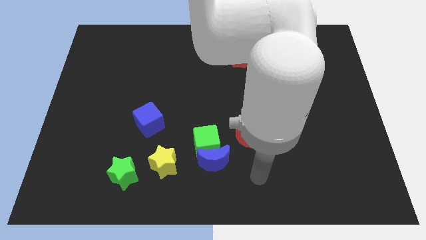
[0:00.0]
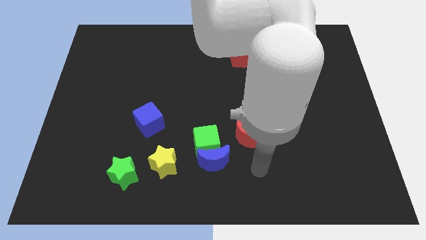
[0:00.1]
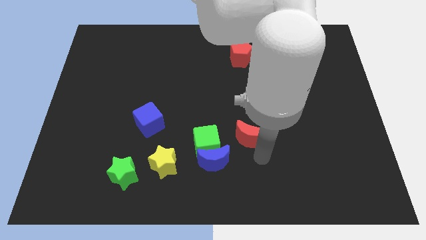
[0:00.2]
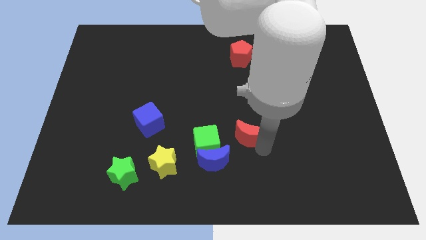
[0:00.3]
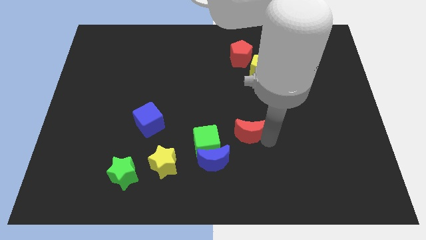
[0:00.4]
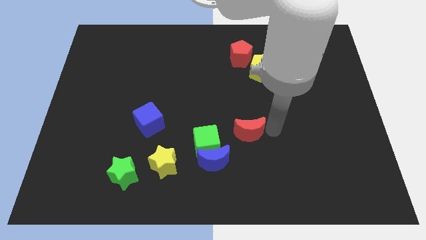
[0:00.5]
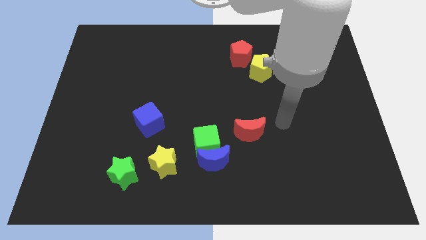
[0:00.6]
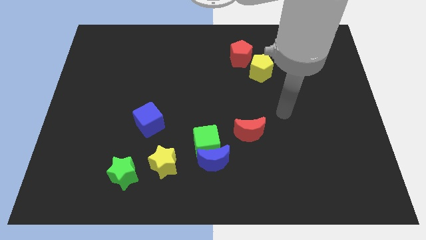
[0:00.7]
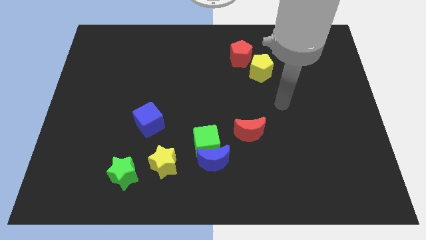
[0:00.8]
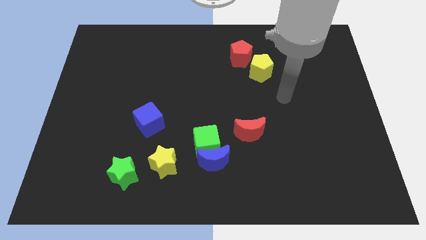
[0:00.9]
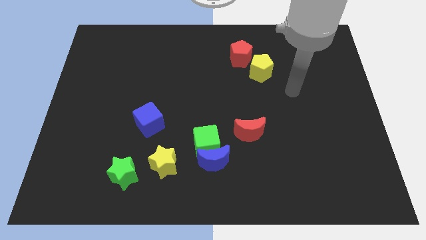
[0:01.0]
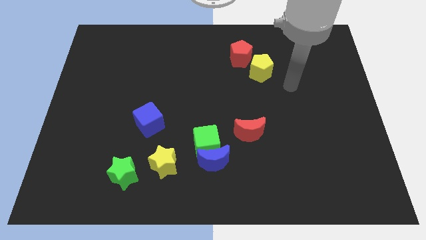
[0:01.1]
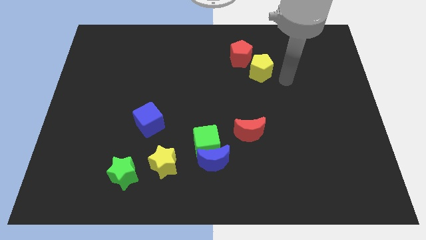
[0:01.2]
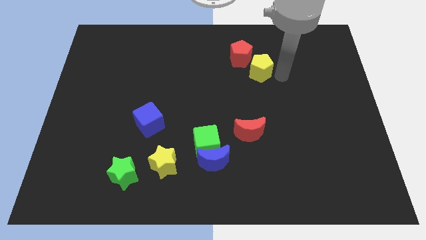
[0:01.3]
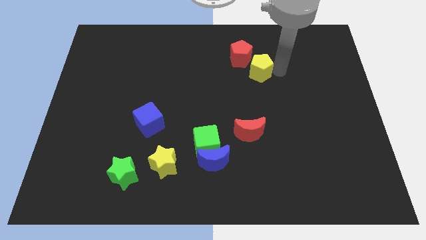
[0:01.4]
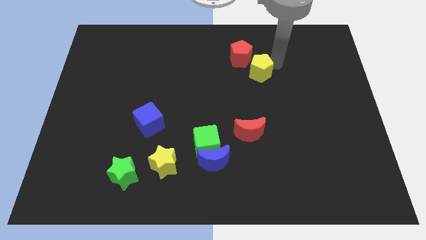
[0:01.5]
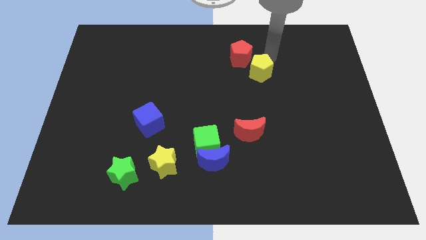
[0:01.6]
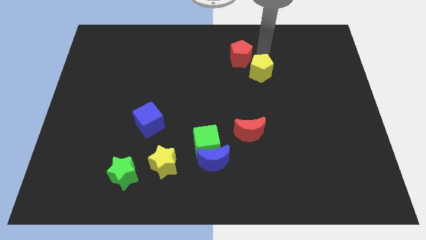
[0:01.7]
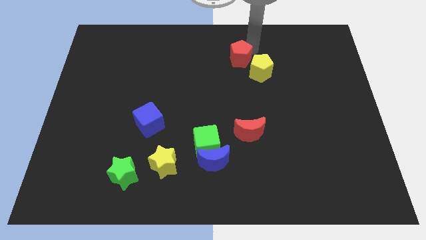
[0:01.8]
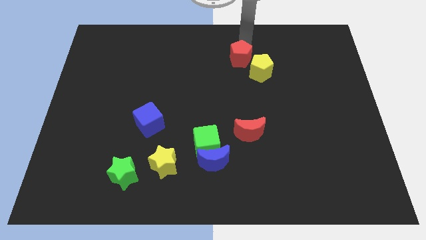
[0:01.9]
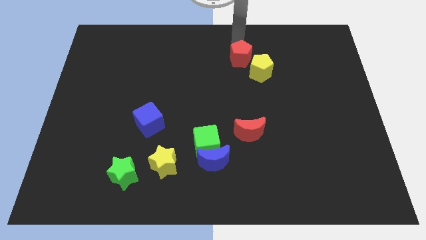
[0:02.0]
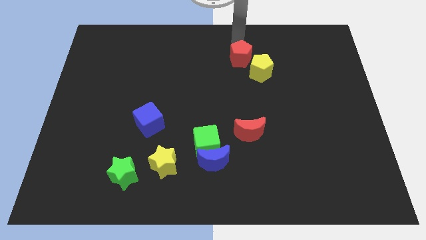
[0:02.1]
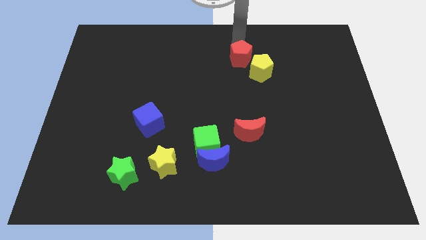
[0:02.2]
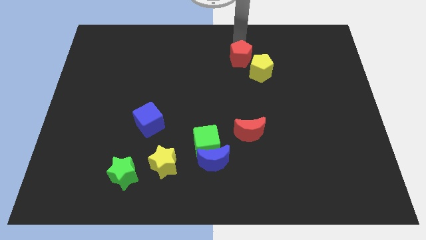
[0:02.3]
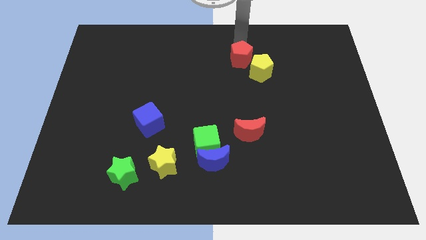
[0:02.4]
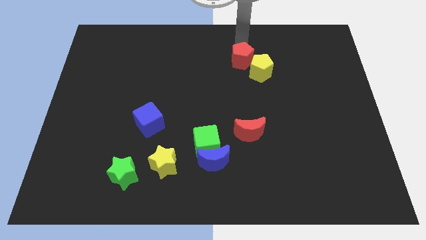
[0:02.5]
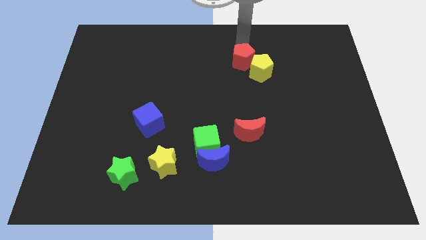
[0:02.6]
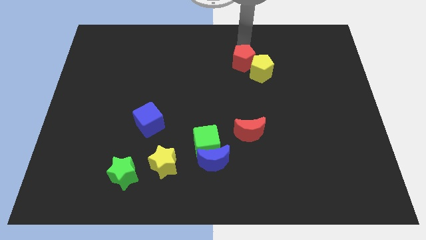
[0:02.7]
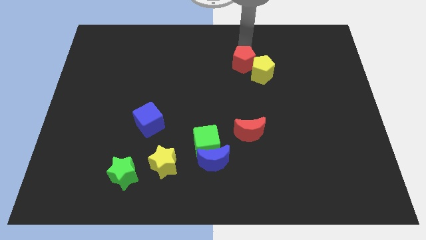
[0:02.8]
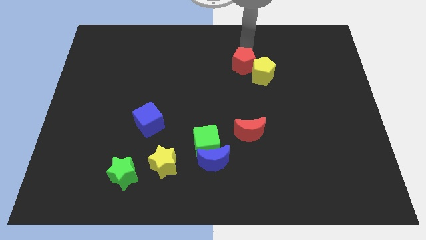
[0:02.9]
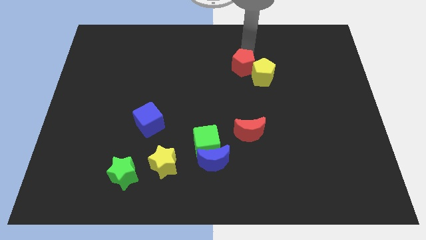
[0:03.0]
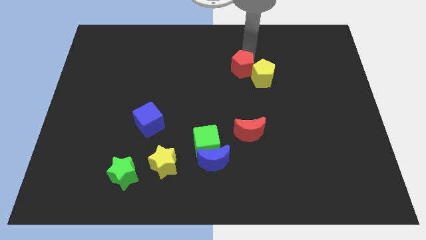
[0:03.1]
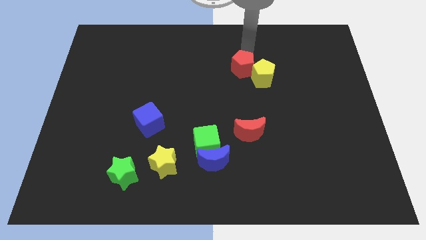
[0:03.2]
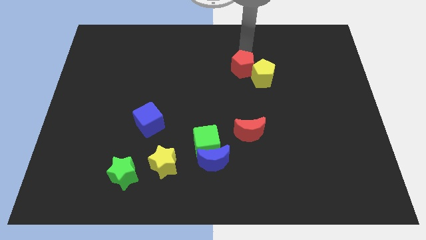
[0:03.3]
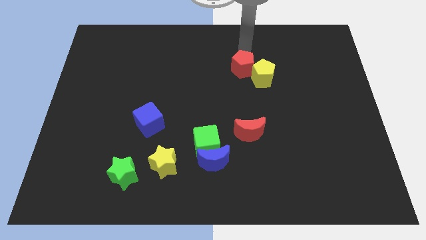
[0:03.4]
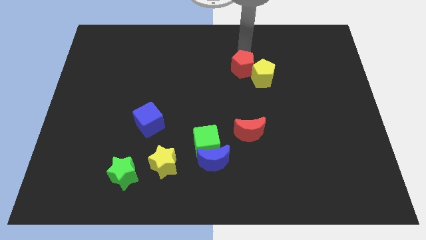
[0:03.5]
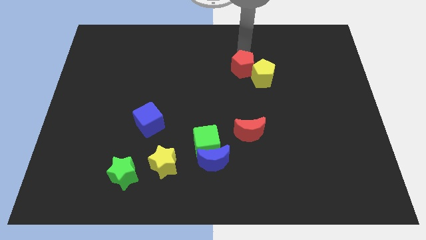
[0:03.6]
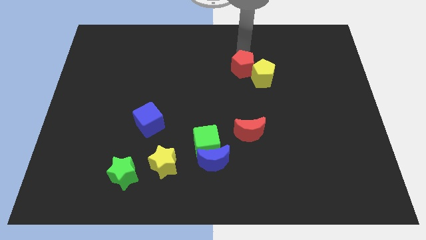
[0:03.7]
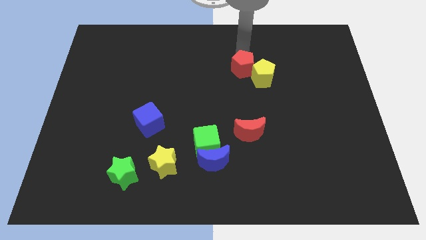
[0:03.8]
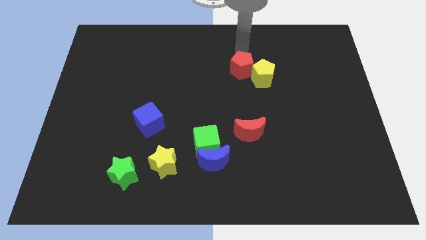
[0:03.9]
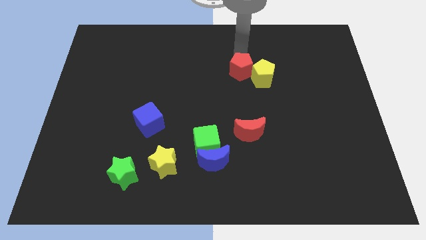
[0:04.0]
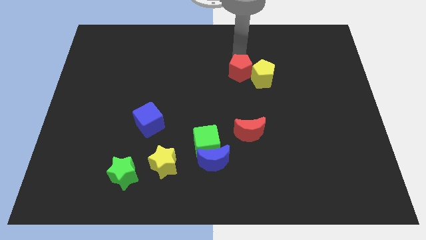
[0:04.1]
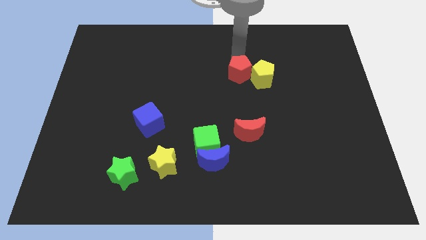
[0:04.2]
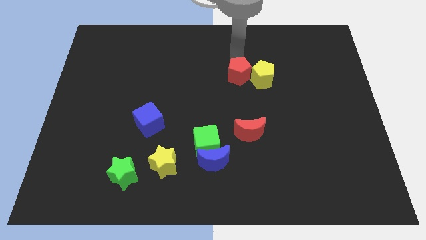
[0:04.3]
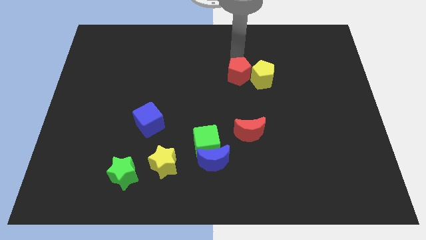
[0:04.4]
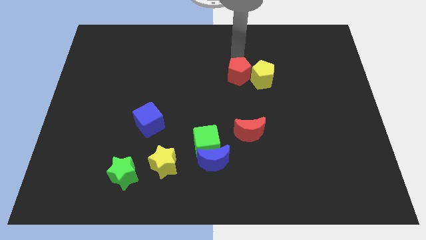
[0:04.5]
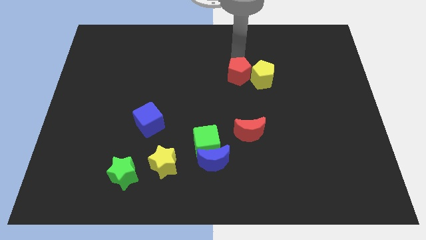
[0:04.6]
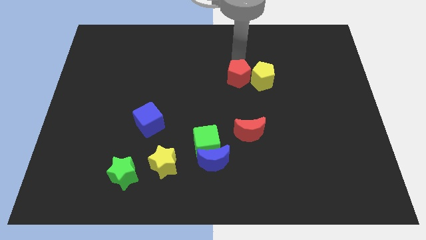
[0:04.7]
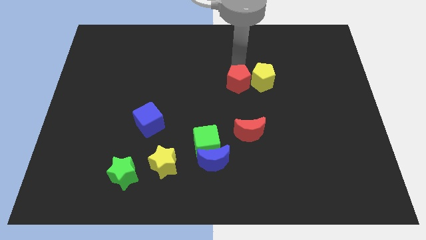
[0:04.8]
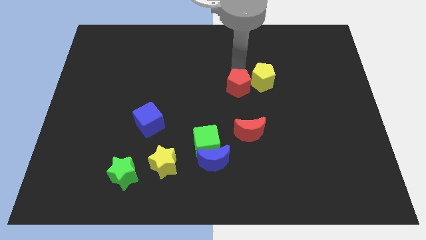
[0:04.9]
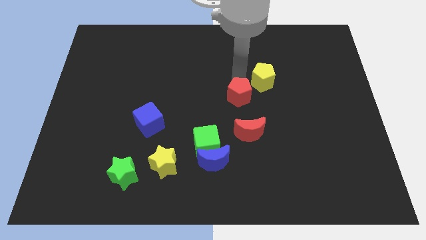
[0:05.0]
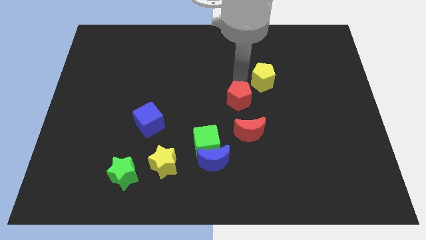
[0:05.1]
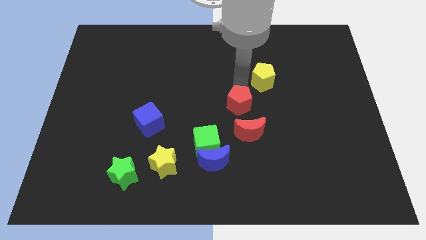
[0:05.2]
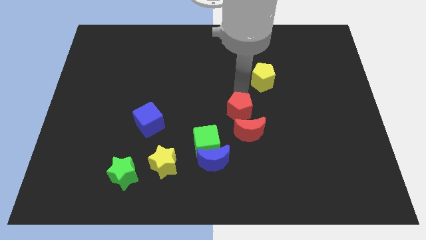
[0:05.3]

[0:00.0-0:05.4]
put the red pentagon diagonally up and to the right of the green cube

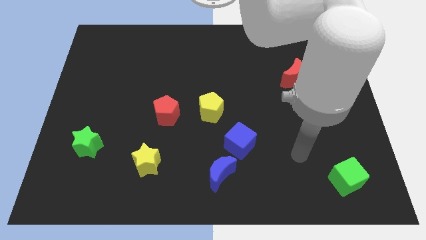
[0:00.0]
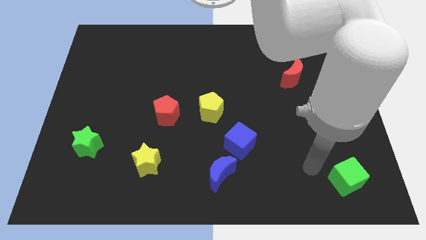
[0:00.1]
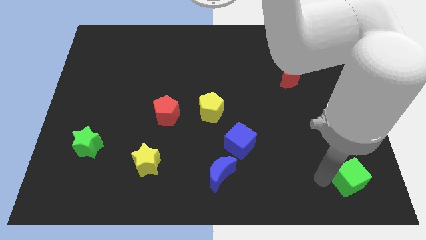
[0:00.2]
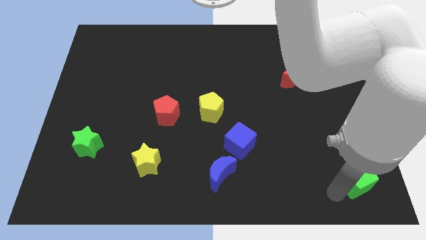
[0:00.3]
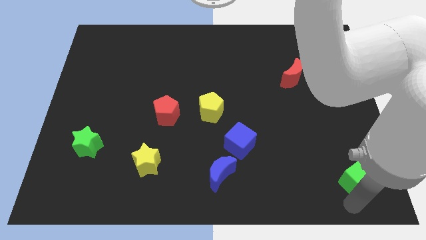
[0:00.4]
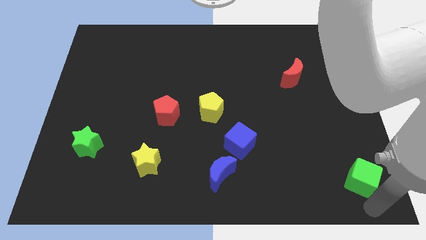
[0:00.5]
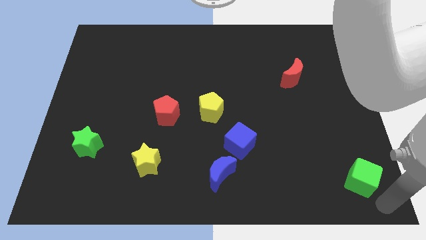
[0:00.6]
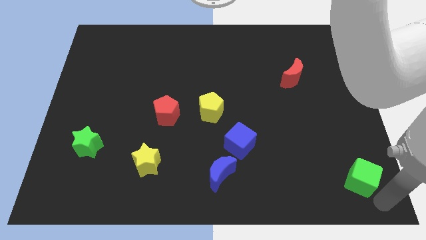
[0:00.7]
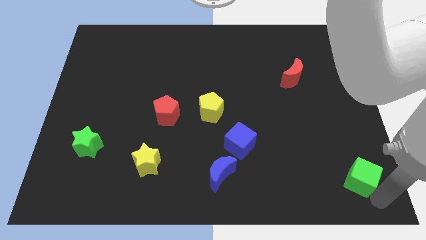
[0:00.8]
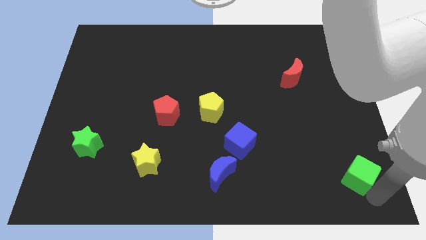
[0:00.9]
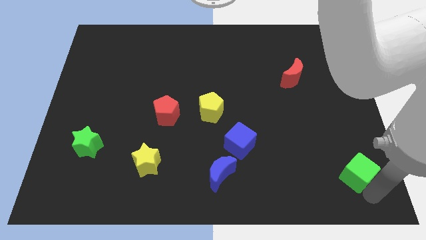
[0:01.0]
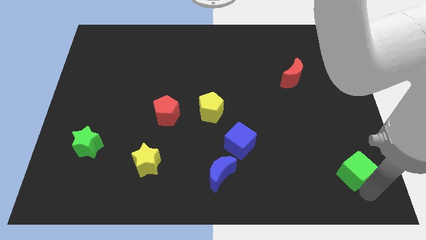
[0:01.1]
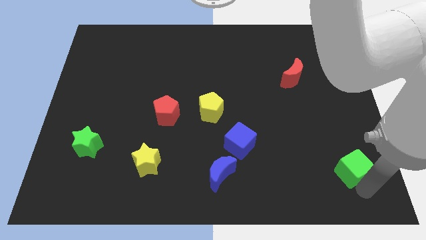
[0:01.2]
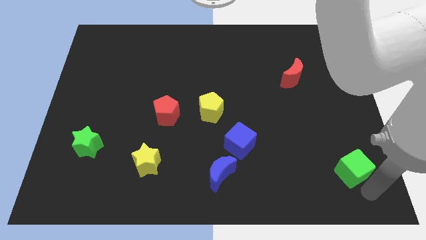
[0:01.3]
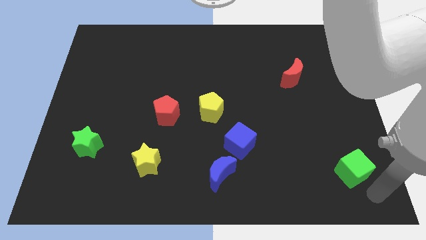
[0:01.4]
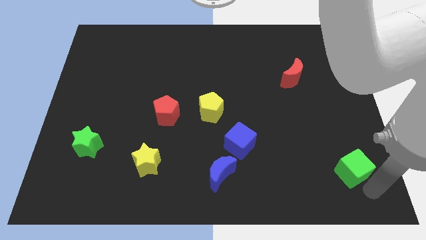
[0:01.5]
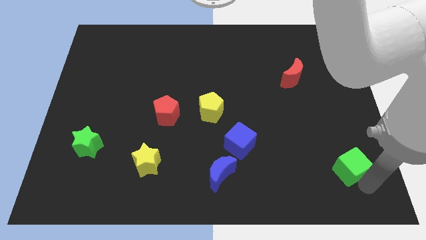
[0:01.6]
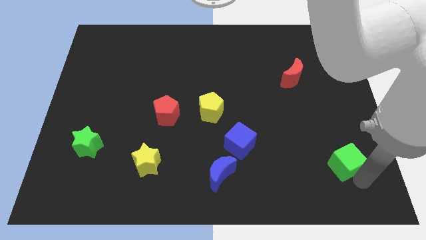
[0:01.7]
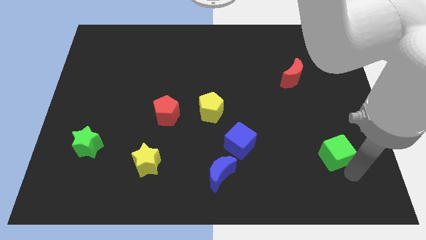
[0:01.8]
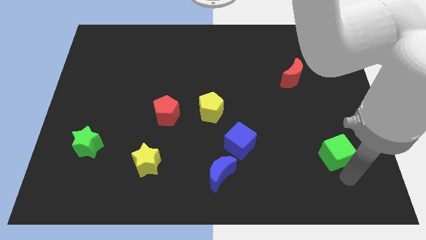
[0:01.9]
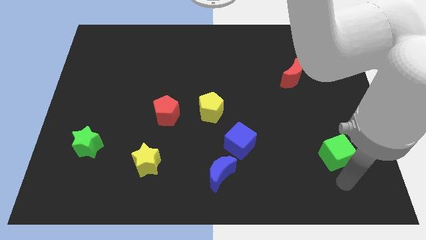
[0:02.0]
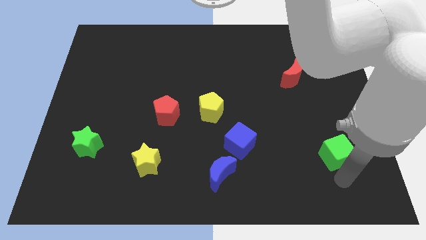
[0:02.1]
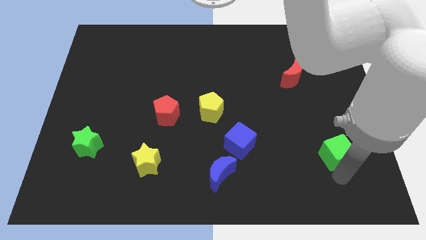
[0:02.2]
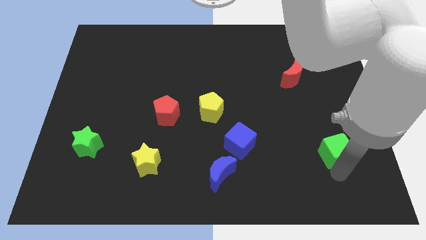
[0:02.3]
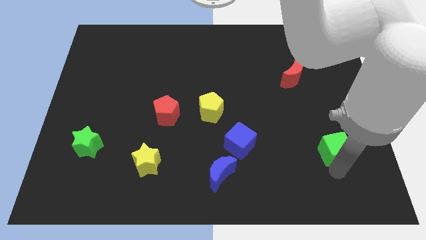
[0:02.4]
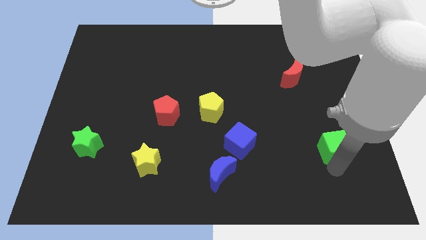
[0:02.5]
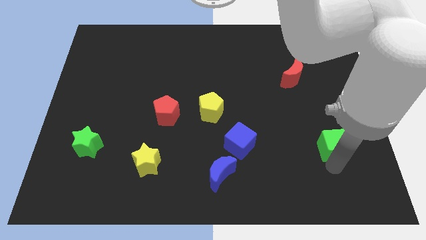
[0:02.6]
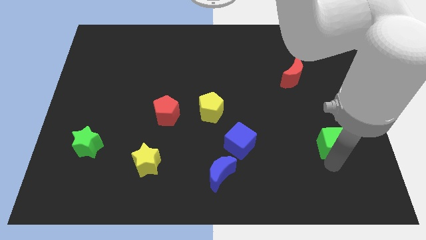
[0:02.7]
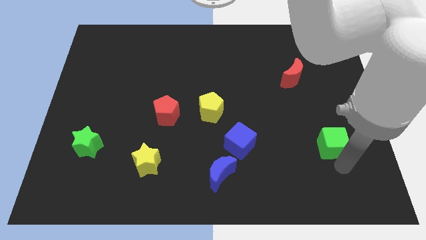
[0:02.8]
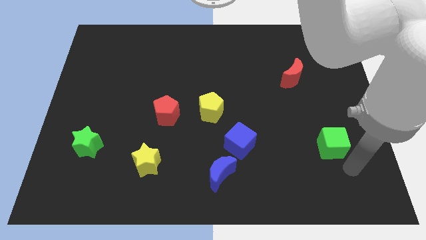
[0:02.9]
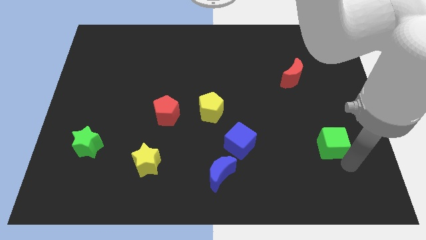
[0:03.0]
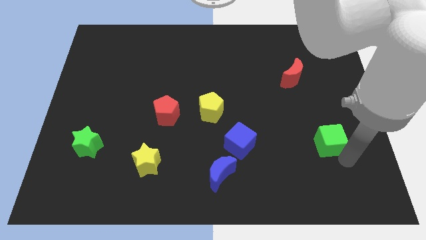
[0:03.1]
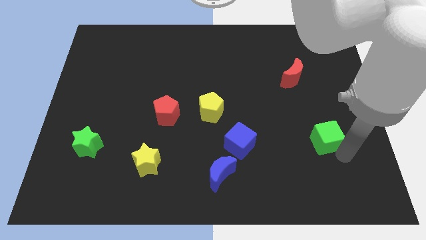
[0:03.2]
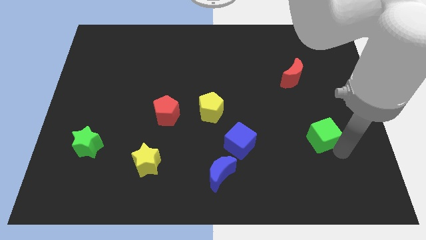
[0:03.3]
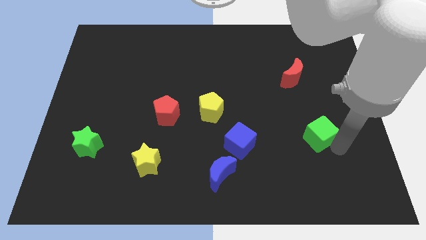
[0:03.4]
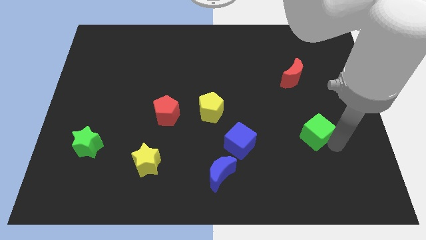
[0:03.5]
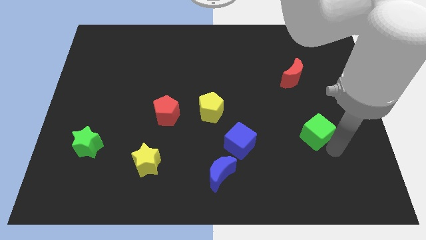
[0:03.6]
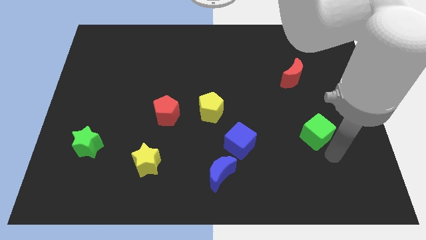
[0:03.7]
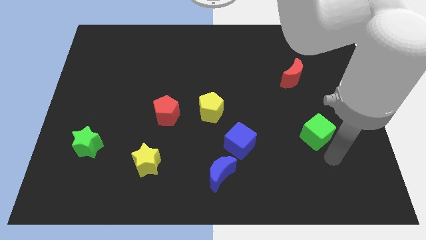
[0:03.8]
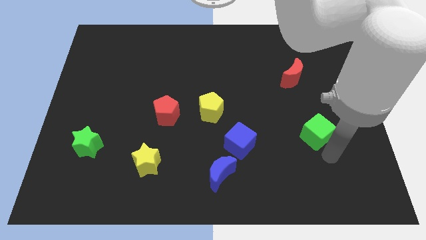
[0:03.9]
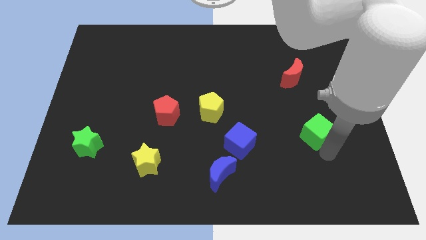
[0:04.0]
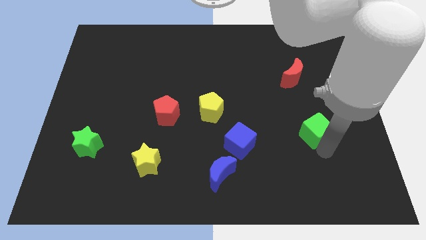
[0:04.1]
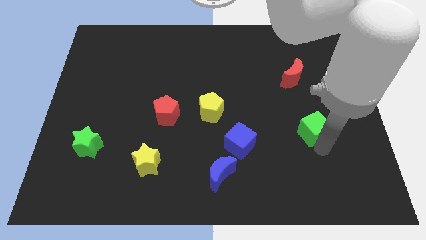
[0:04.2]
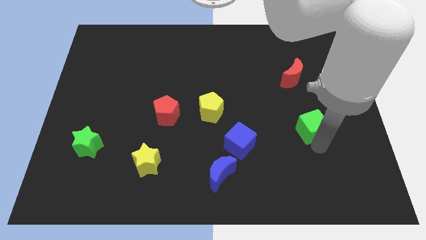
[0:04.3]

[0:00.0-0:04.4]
push the green cube to the bottom of the red moon
